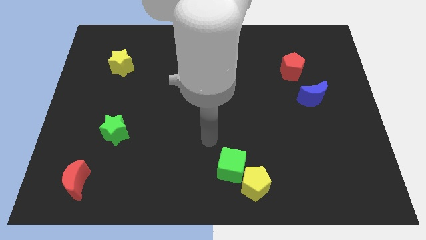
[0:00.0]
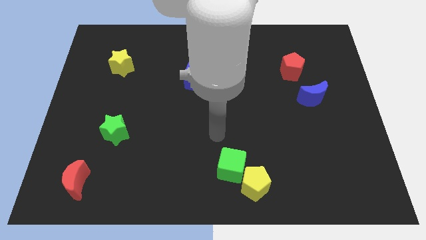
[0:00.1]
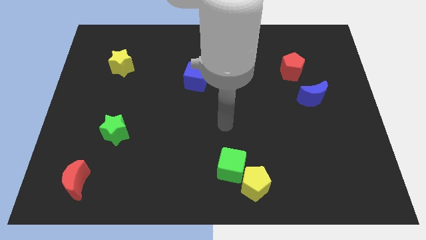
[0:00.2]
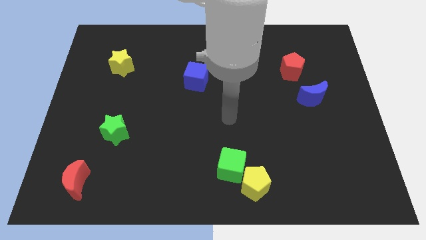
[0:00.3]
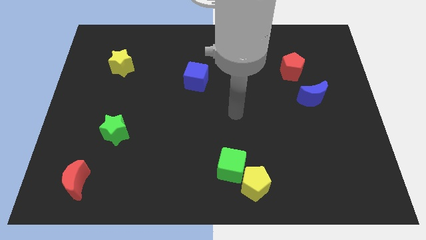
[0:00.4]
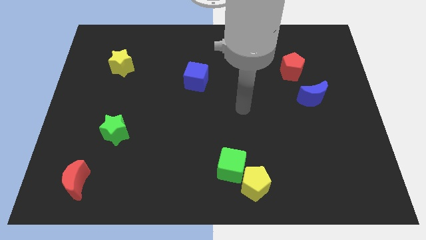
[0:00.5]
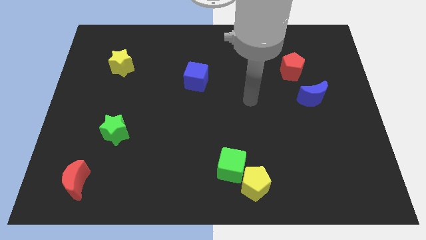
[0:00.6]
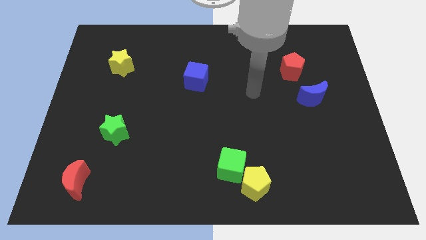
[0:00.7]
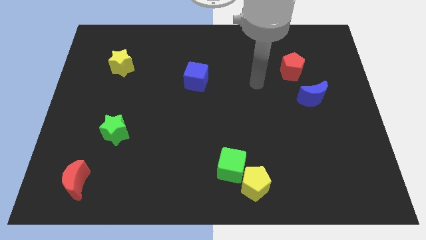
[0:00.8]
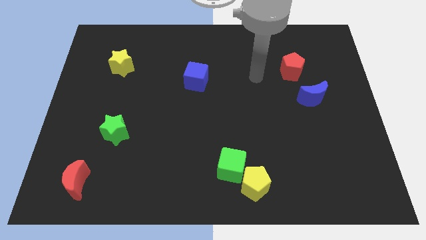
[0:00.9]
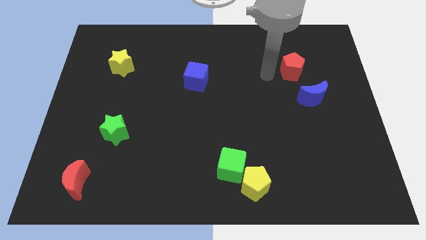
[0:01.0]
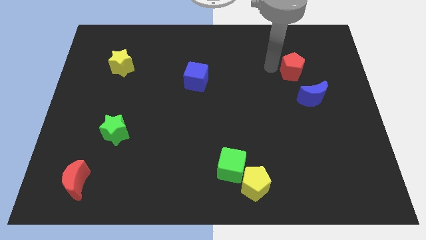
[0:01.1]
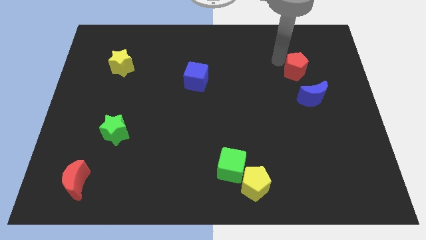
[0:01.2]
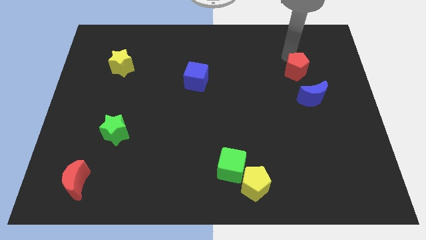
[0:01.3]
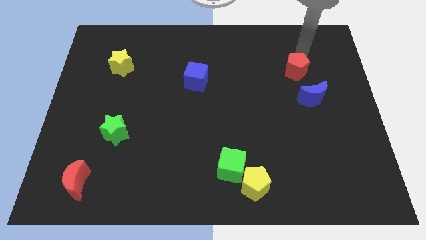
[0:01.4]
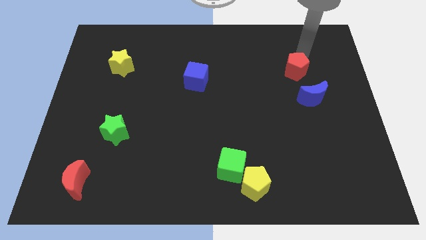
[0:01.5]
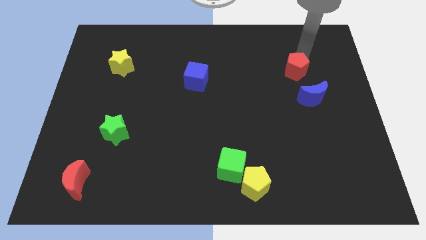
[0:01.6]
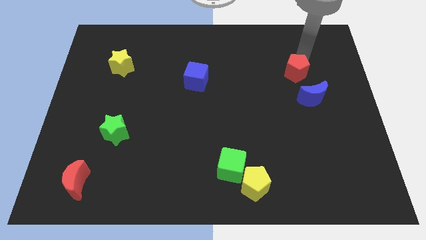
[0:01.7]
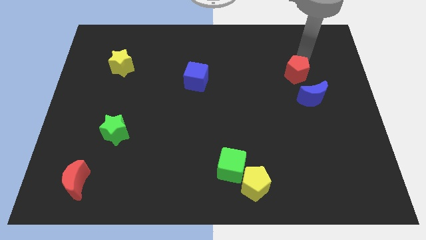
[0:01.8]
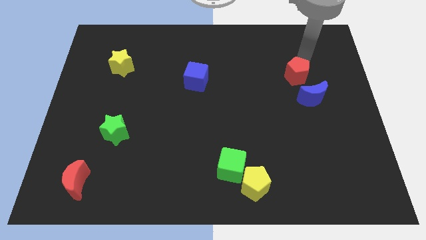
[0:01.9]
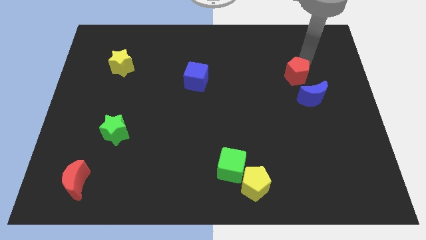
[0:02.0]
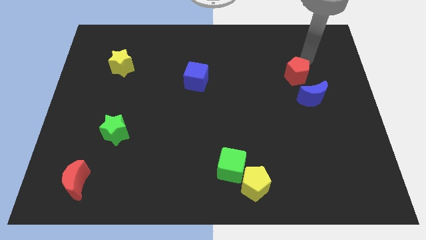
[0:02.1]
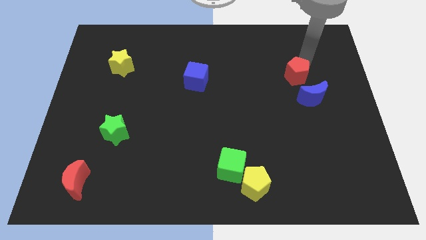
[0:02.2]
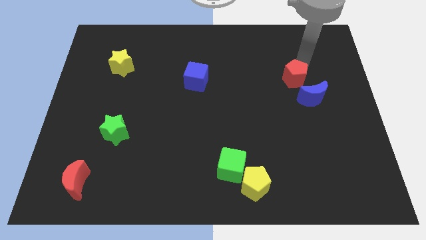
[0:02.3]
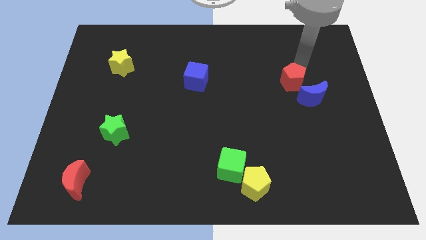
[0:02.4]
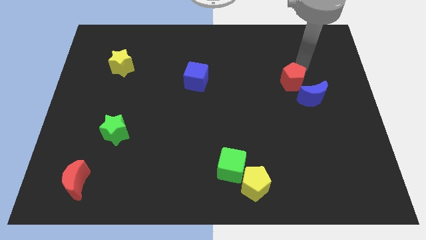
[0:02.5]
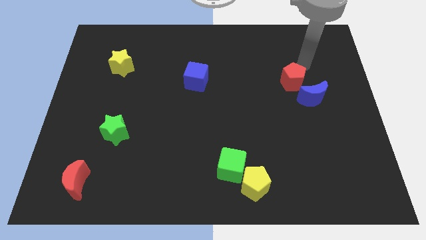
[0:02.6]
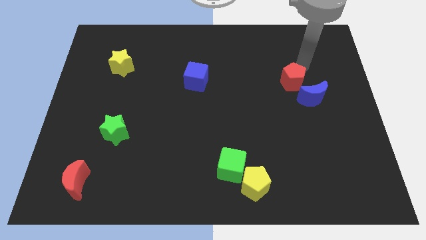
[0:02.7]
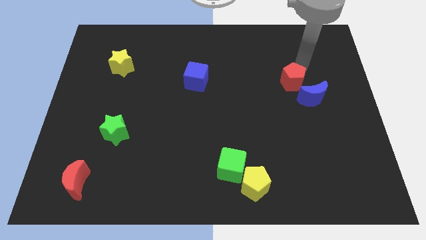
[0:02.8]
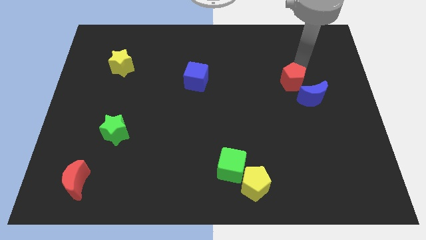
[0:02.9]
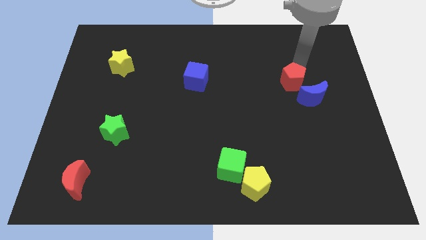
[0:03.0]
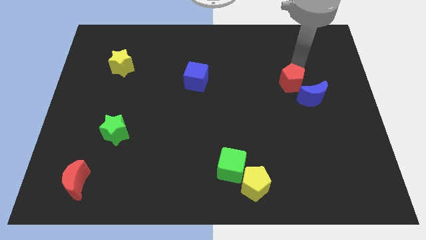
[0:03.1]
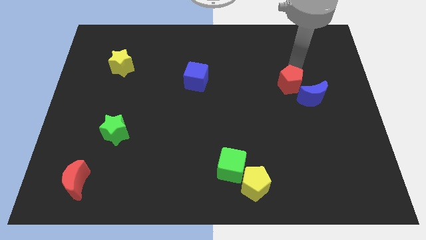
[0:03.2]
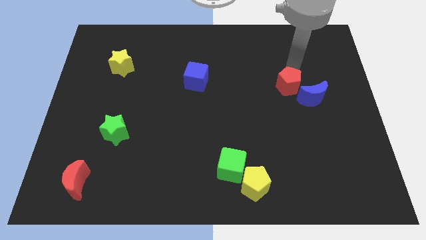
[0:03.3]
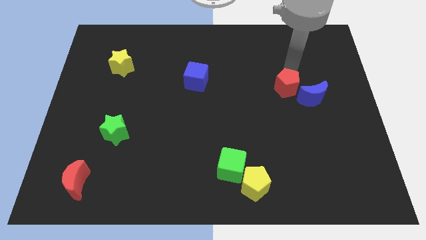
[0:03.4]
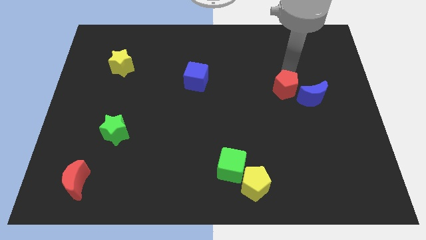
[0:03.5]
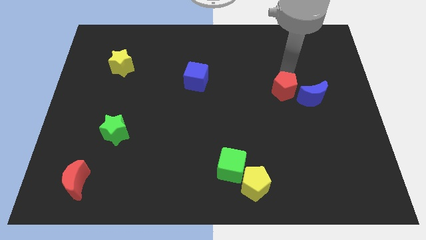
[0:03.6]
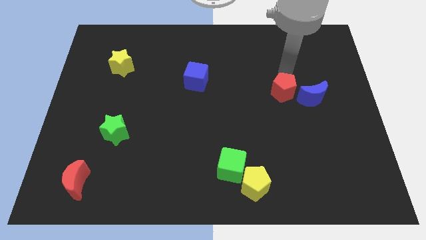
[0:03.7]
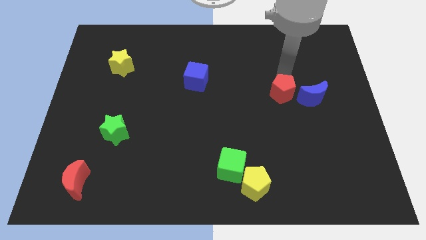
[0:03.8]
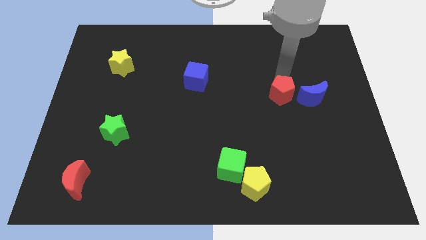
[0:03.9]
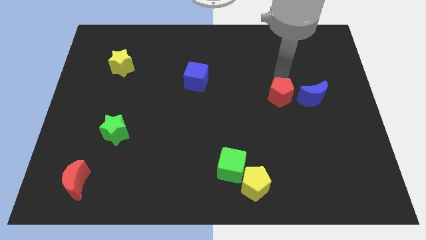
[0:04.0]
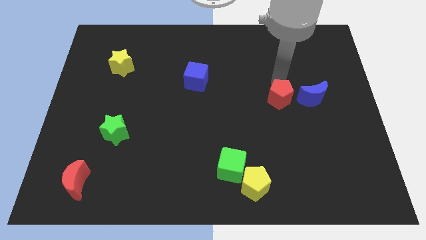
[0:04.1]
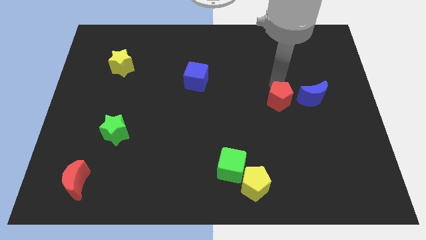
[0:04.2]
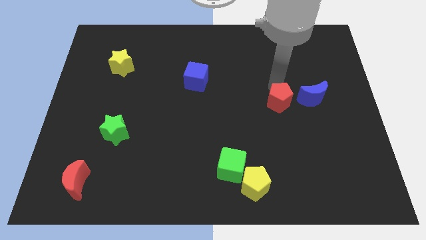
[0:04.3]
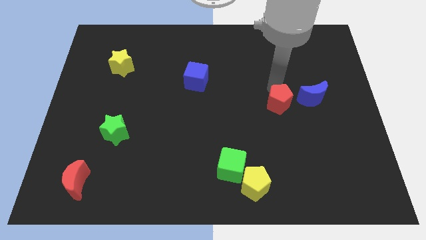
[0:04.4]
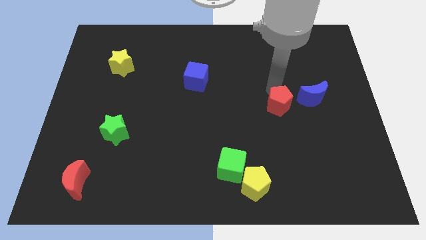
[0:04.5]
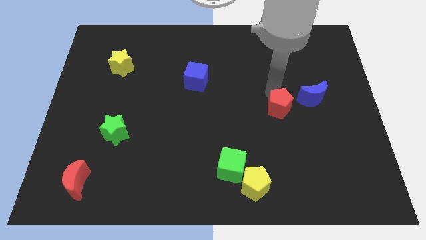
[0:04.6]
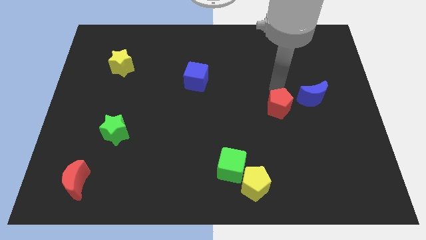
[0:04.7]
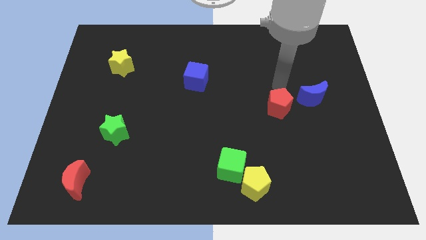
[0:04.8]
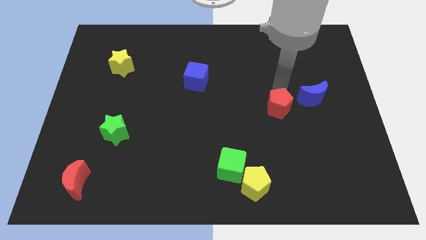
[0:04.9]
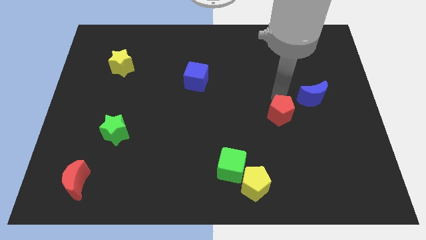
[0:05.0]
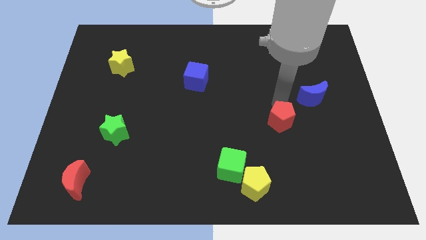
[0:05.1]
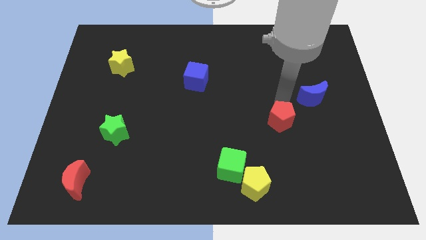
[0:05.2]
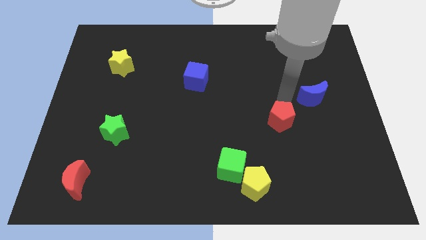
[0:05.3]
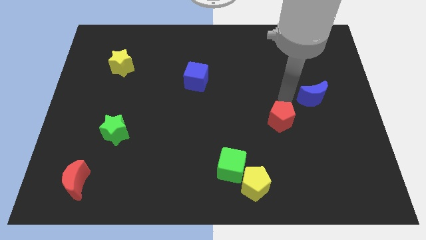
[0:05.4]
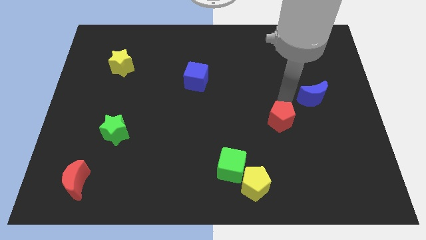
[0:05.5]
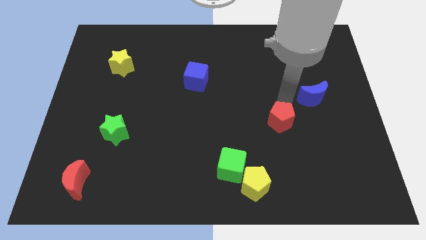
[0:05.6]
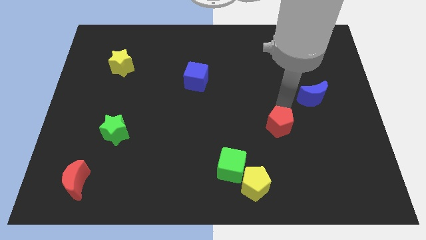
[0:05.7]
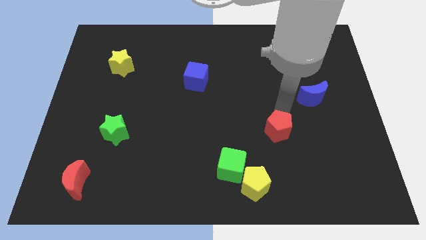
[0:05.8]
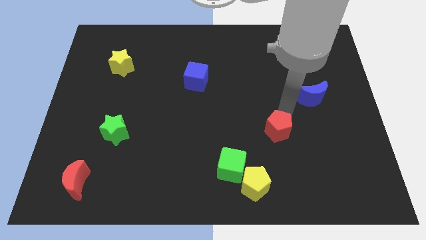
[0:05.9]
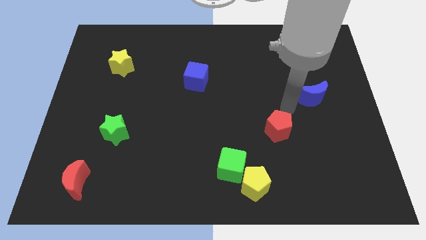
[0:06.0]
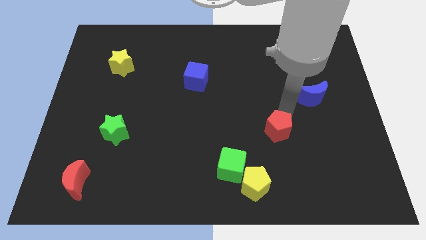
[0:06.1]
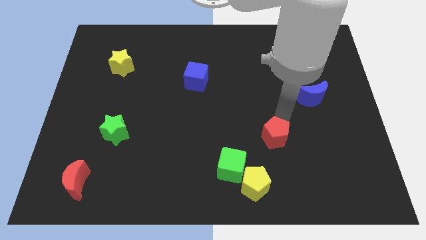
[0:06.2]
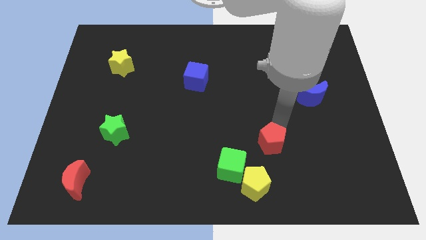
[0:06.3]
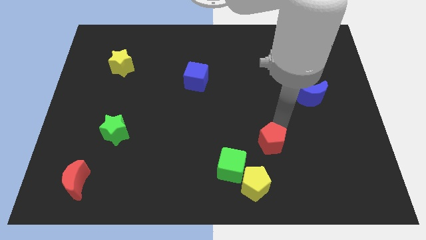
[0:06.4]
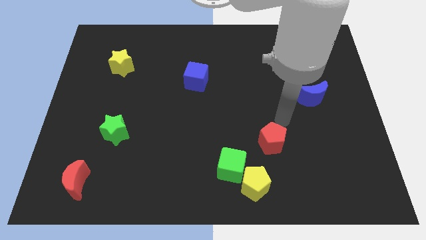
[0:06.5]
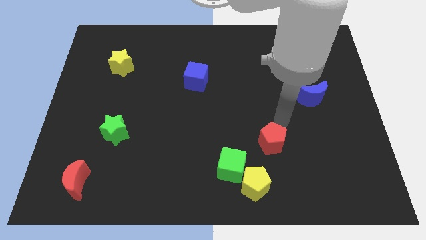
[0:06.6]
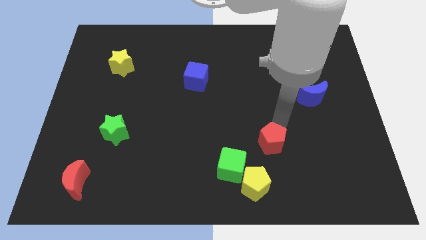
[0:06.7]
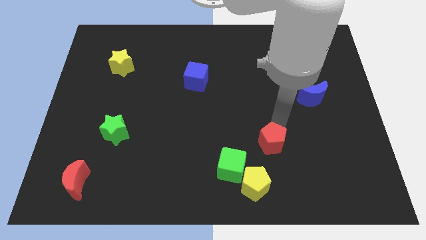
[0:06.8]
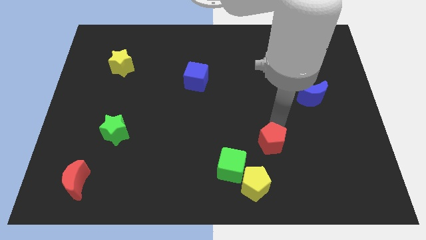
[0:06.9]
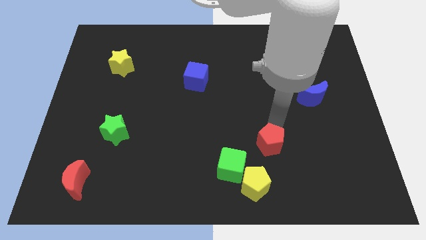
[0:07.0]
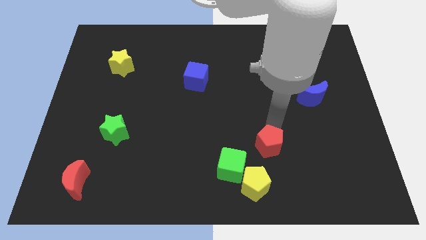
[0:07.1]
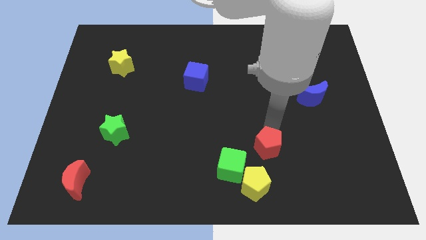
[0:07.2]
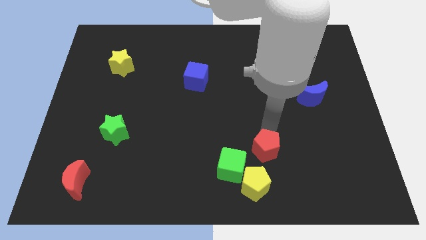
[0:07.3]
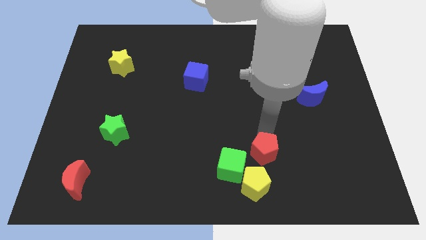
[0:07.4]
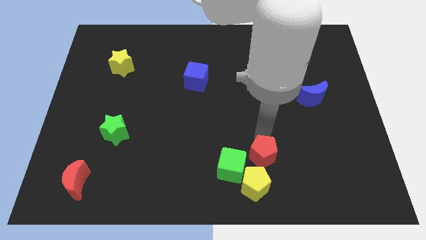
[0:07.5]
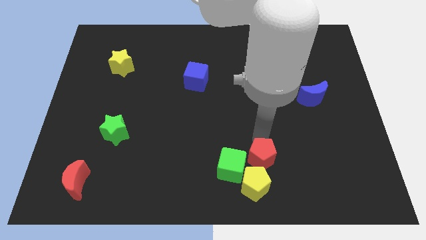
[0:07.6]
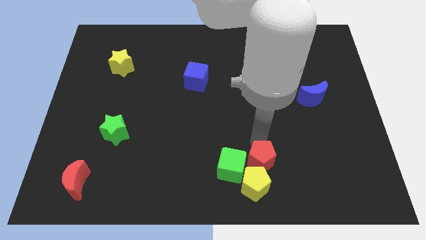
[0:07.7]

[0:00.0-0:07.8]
put the red pentagon towards the yellow pentagon
